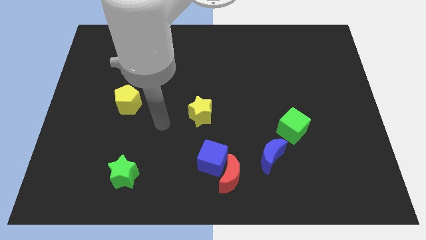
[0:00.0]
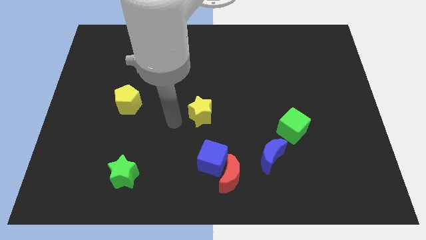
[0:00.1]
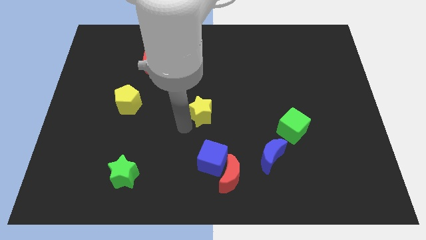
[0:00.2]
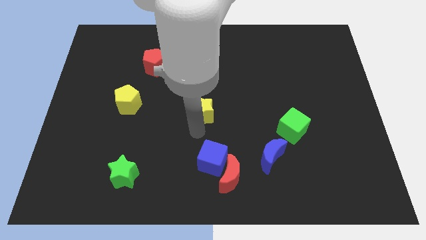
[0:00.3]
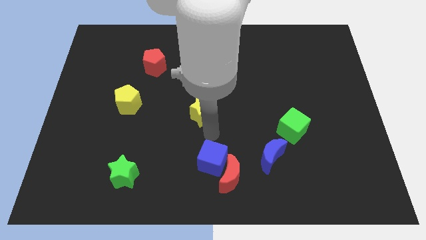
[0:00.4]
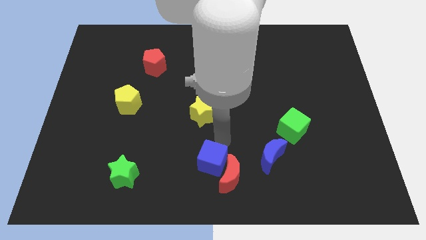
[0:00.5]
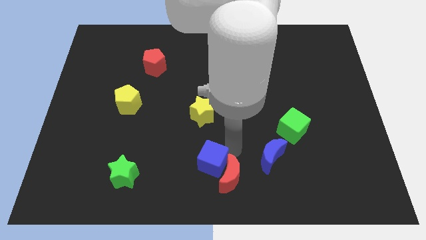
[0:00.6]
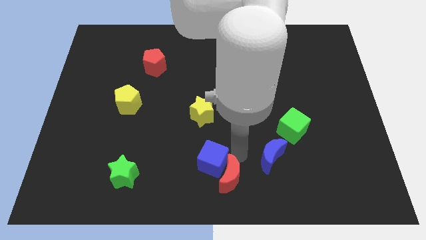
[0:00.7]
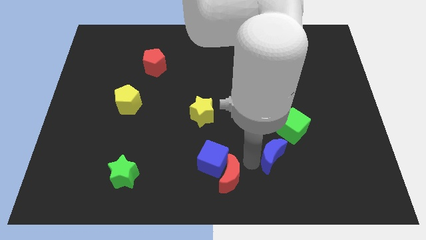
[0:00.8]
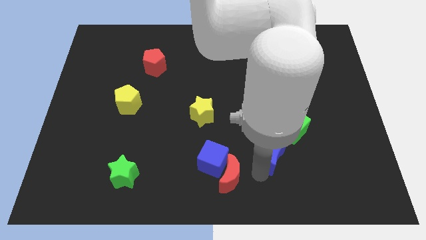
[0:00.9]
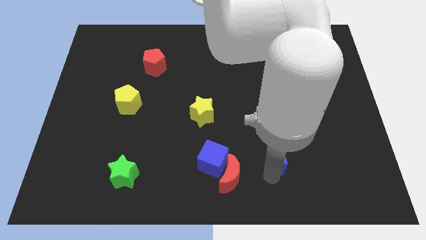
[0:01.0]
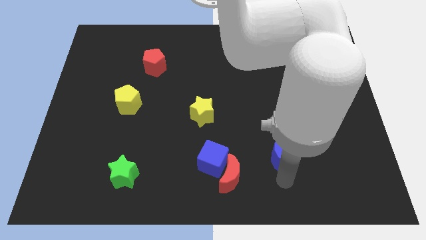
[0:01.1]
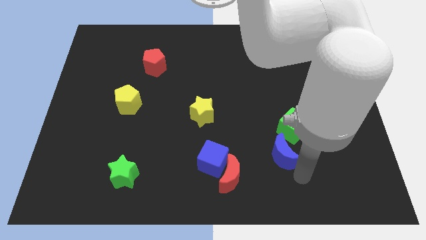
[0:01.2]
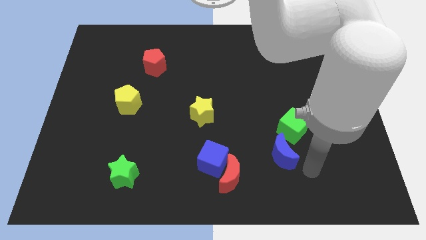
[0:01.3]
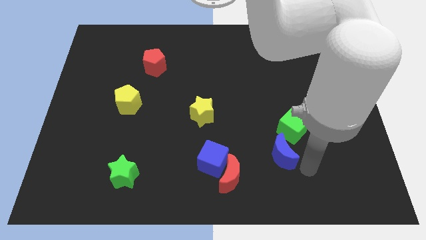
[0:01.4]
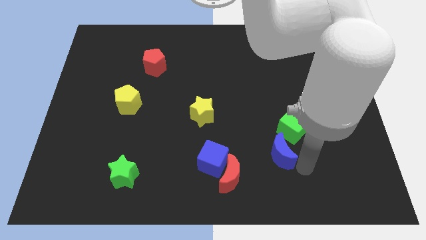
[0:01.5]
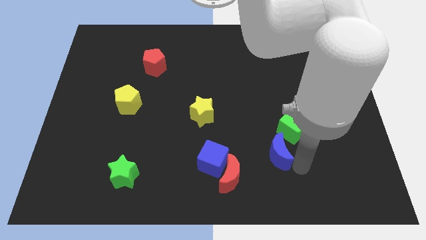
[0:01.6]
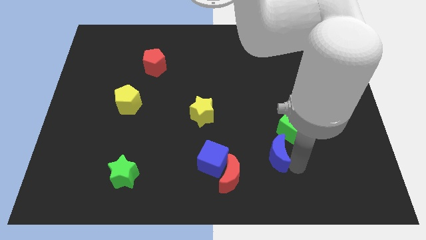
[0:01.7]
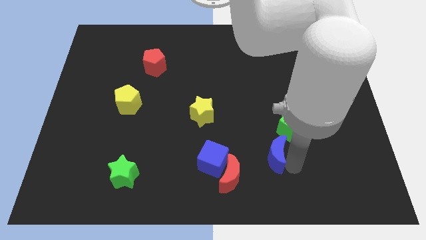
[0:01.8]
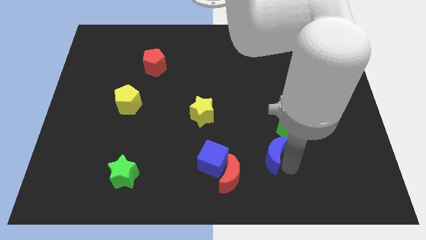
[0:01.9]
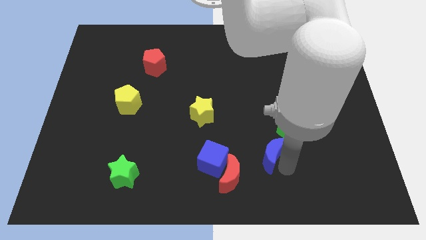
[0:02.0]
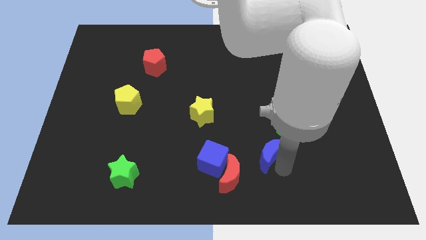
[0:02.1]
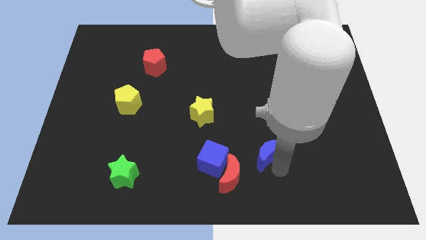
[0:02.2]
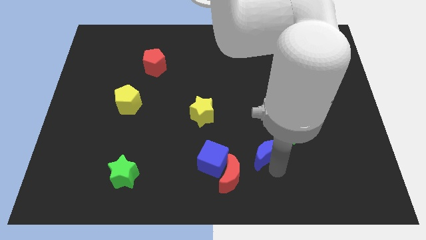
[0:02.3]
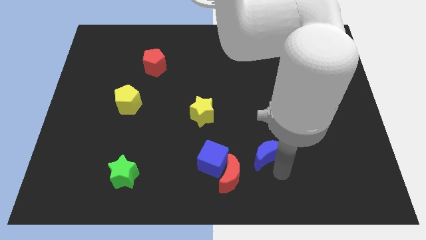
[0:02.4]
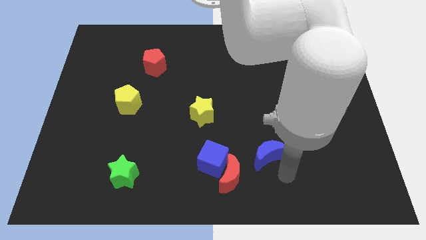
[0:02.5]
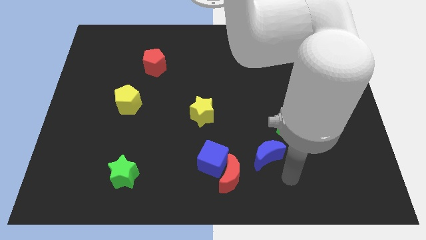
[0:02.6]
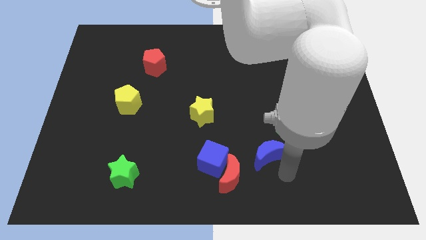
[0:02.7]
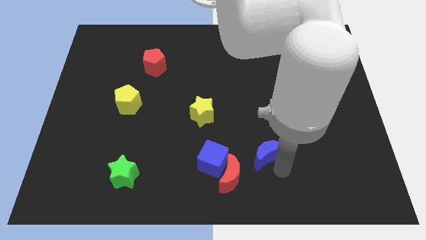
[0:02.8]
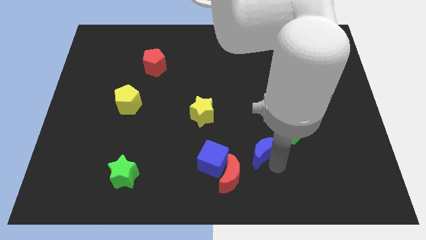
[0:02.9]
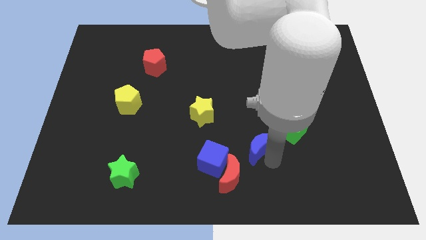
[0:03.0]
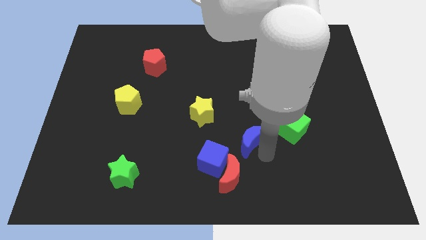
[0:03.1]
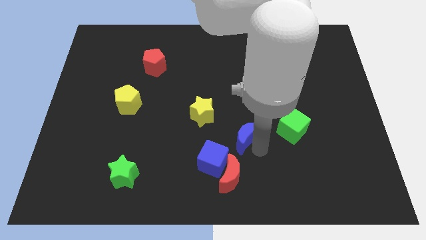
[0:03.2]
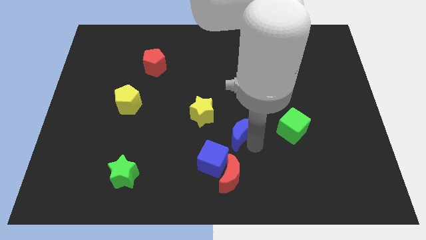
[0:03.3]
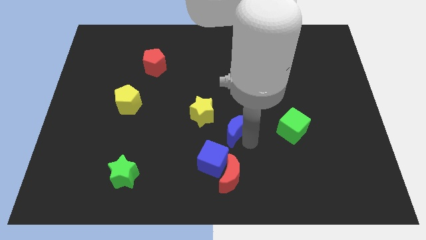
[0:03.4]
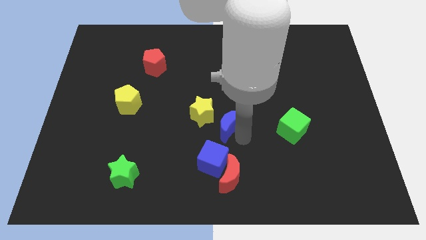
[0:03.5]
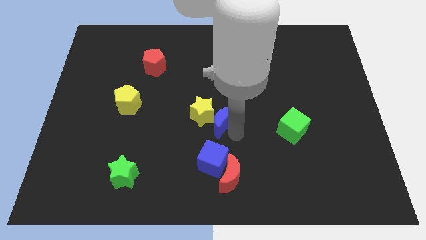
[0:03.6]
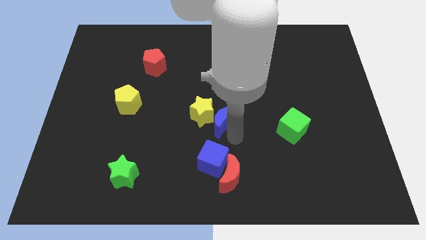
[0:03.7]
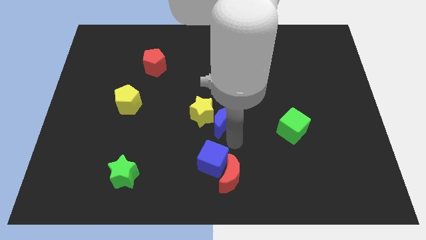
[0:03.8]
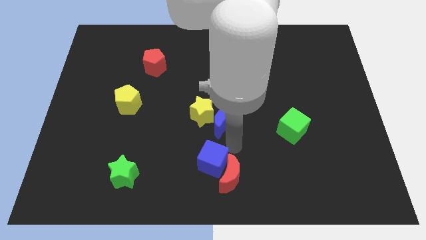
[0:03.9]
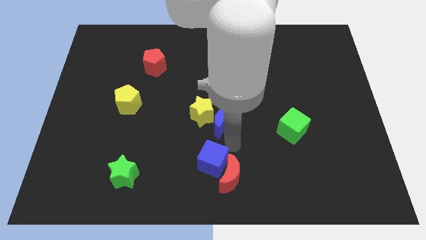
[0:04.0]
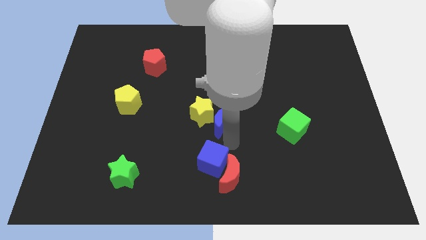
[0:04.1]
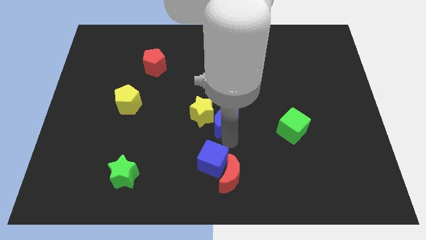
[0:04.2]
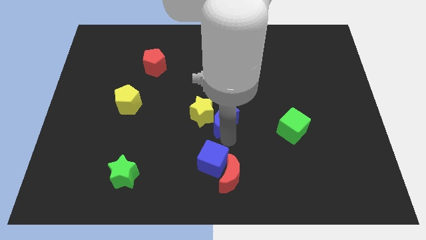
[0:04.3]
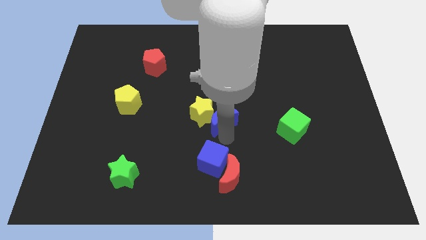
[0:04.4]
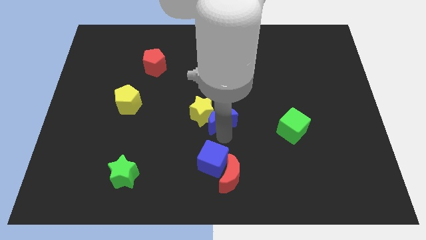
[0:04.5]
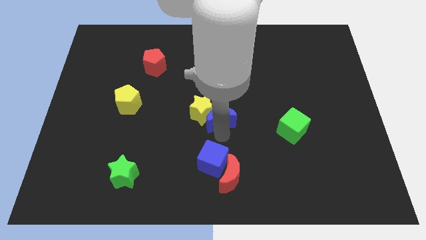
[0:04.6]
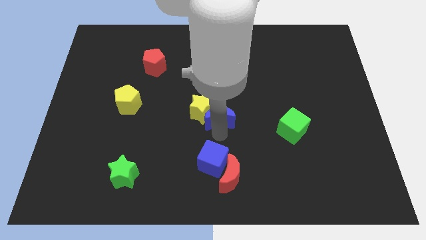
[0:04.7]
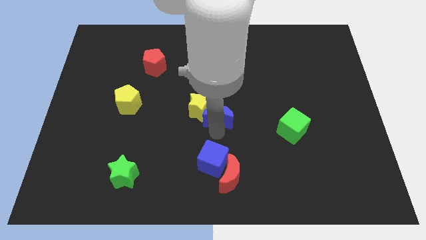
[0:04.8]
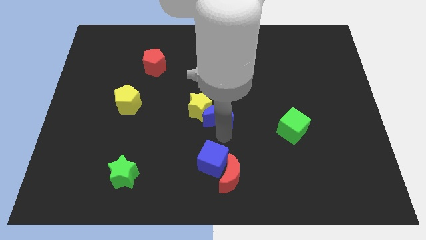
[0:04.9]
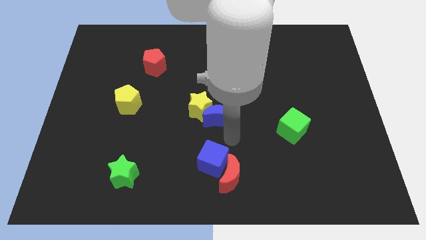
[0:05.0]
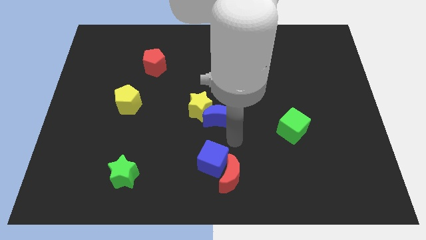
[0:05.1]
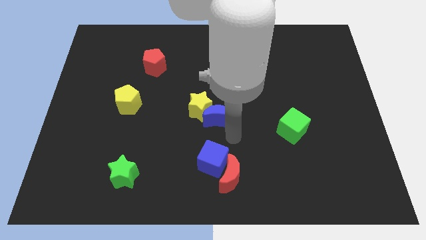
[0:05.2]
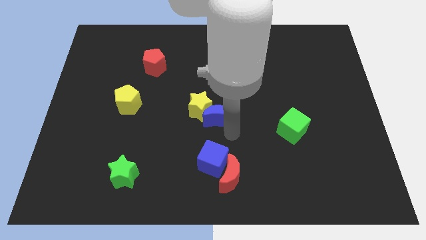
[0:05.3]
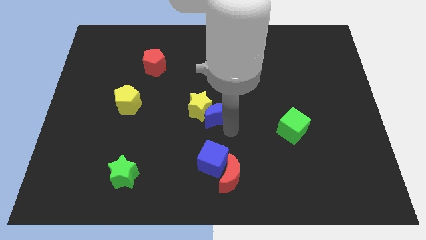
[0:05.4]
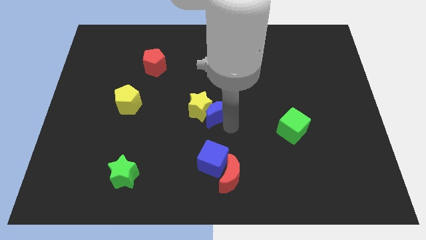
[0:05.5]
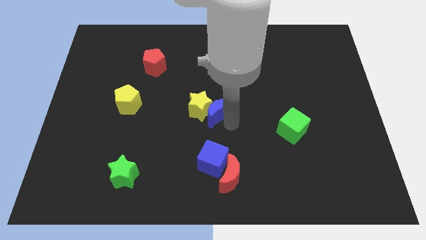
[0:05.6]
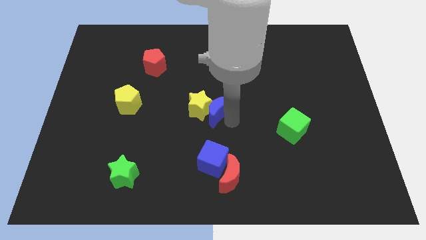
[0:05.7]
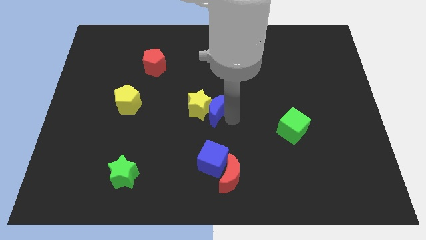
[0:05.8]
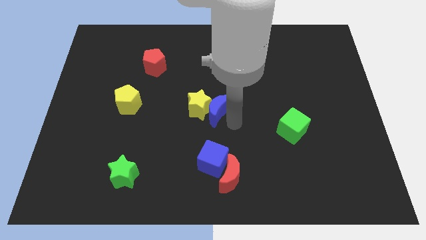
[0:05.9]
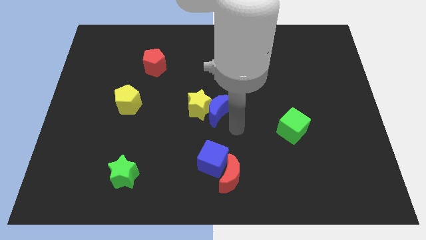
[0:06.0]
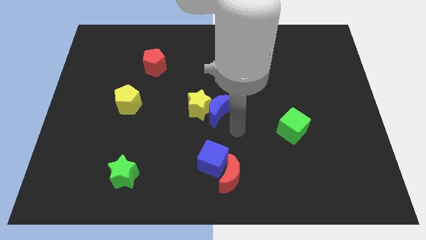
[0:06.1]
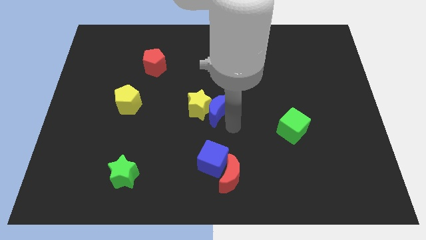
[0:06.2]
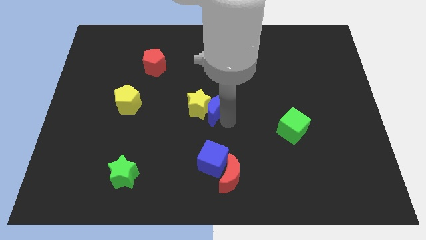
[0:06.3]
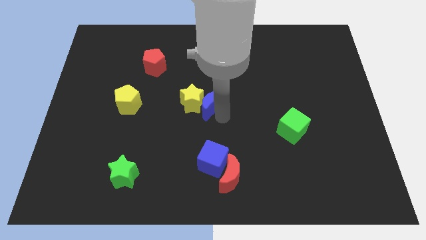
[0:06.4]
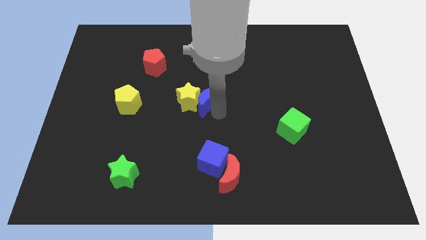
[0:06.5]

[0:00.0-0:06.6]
push the blue moon upwards and left

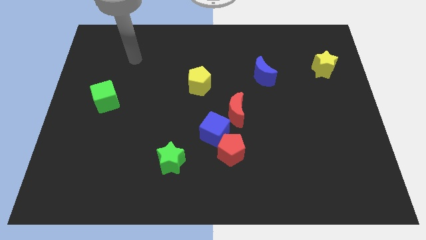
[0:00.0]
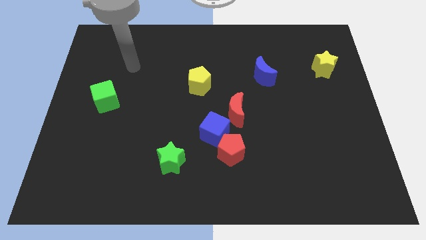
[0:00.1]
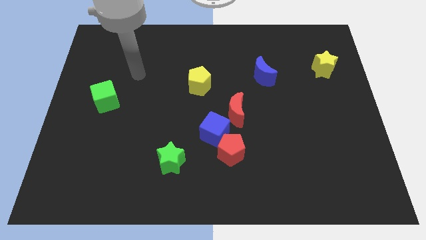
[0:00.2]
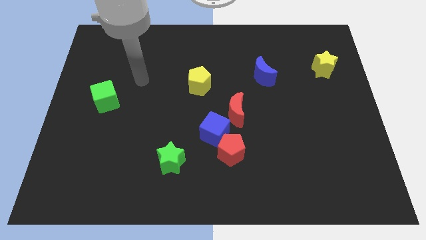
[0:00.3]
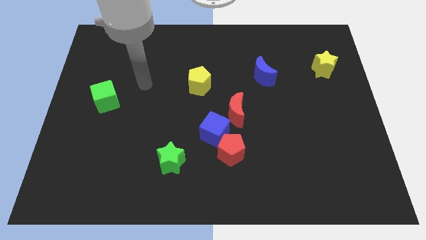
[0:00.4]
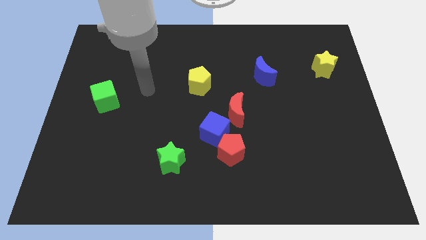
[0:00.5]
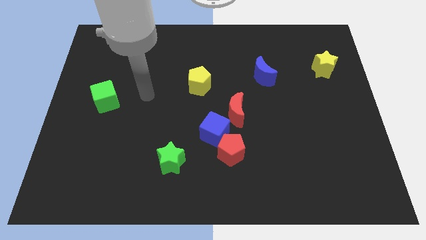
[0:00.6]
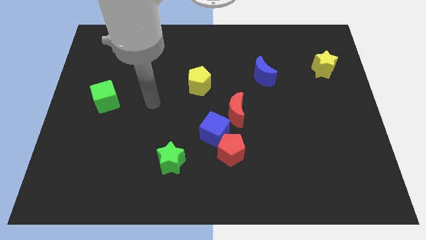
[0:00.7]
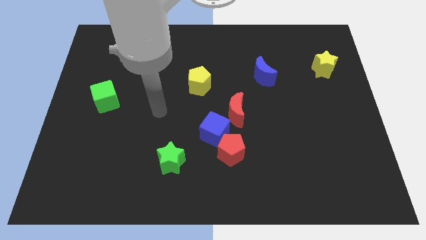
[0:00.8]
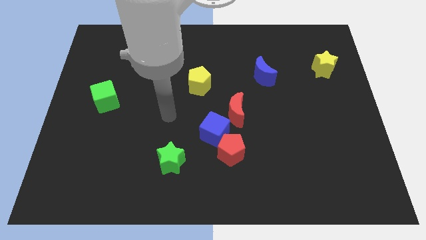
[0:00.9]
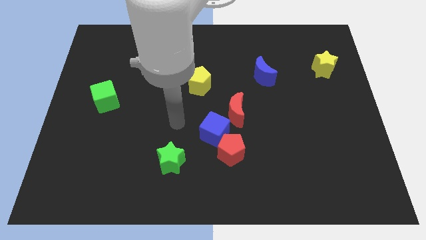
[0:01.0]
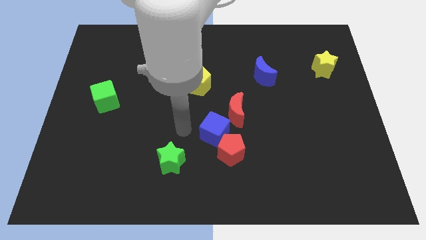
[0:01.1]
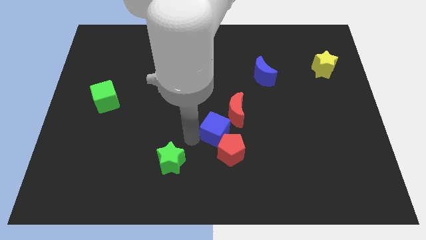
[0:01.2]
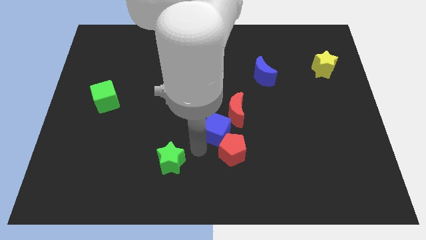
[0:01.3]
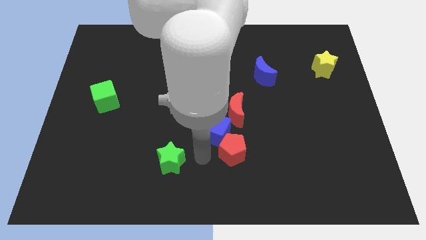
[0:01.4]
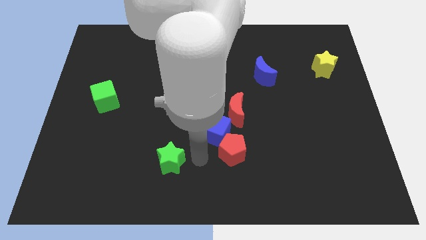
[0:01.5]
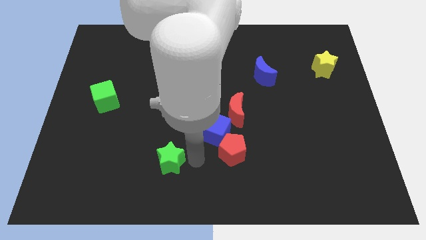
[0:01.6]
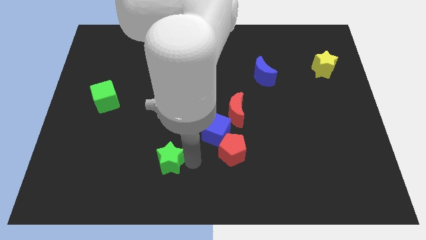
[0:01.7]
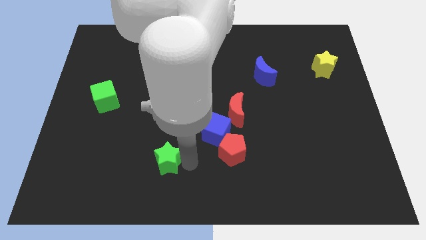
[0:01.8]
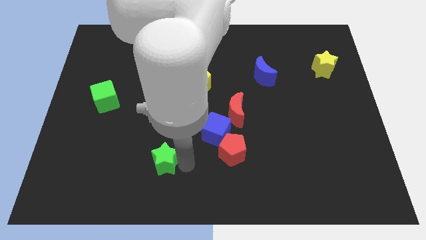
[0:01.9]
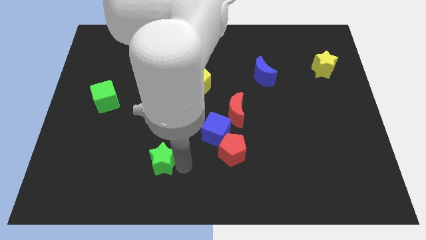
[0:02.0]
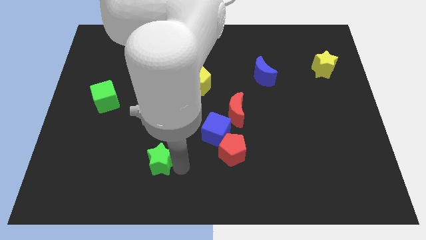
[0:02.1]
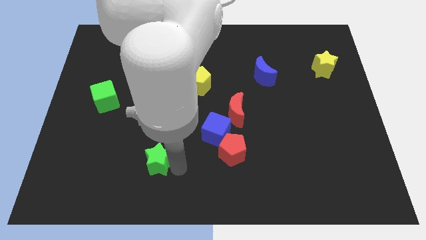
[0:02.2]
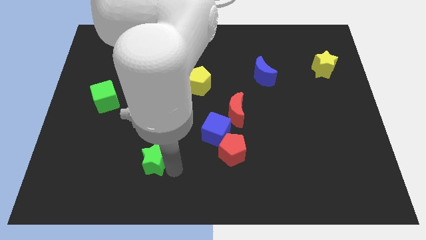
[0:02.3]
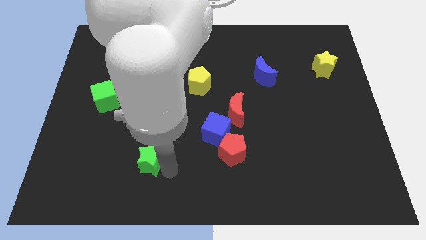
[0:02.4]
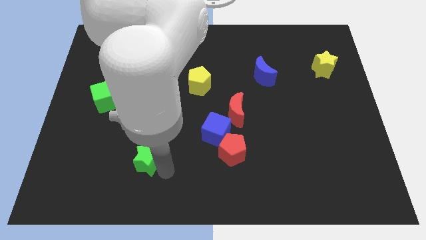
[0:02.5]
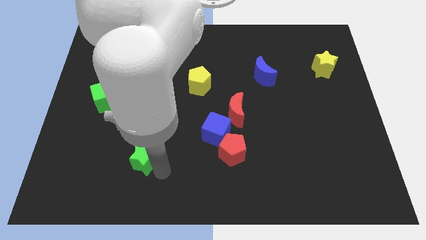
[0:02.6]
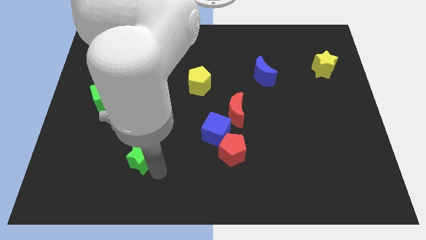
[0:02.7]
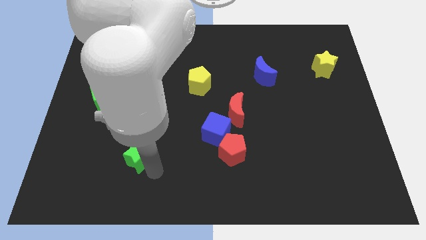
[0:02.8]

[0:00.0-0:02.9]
slightly push the green star left
